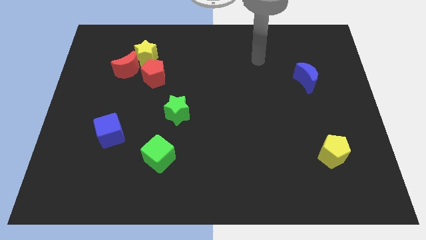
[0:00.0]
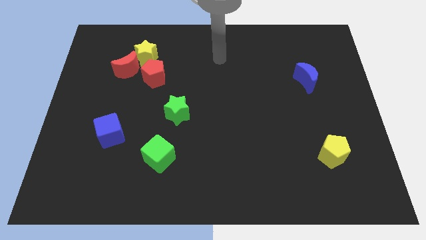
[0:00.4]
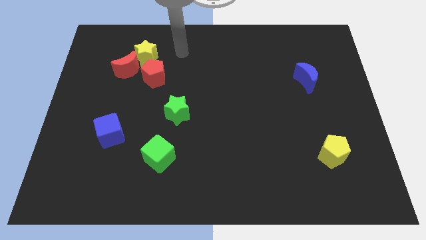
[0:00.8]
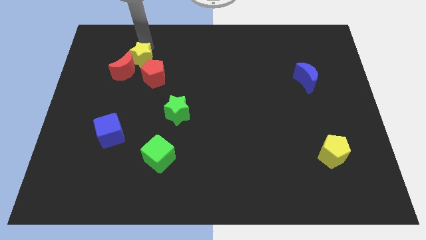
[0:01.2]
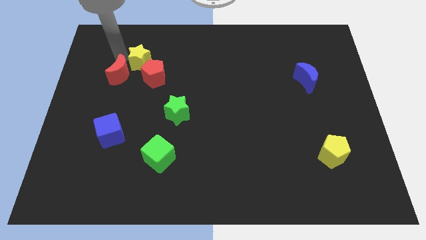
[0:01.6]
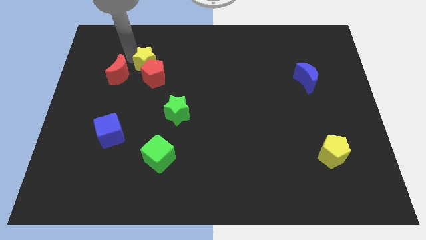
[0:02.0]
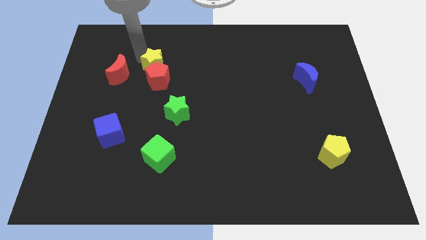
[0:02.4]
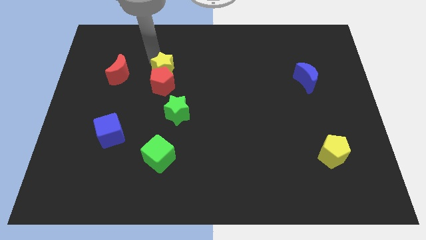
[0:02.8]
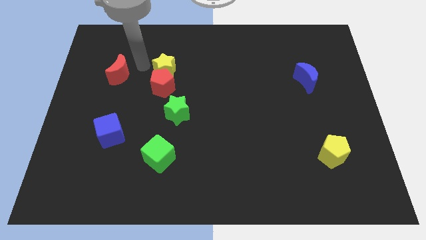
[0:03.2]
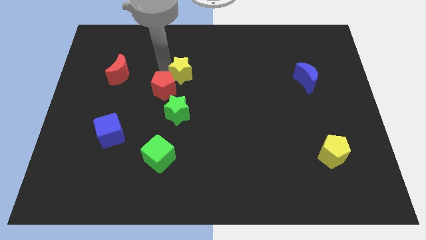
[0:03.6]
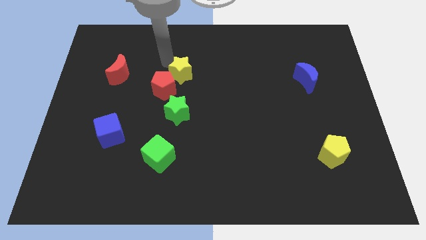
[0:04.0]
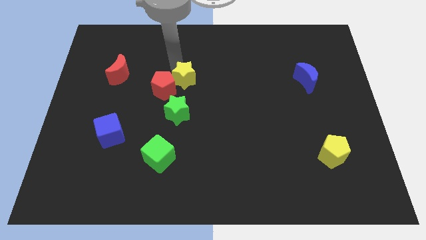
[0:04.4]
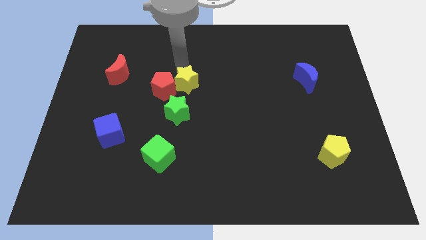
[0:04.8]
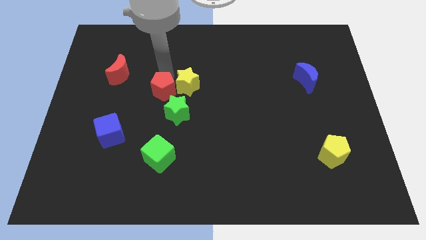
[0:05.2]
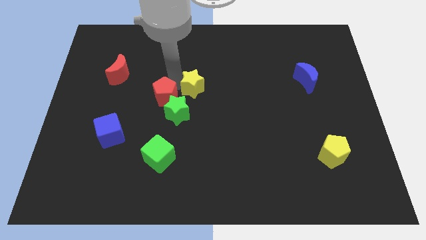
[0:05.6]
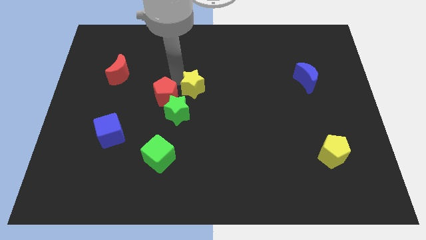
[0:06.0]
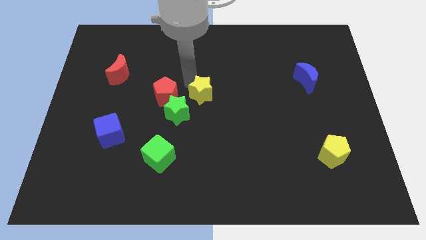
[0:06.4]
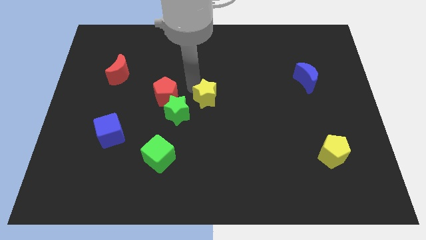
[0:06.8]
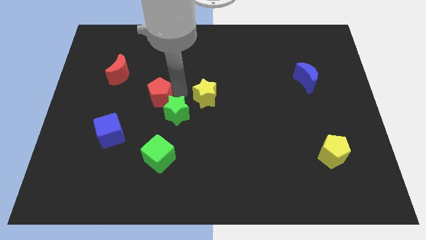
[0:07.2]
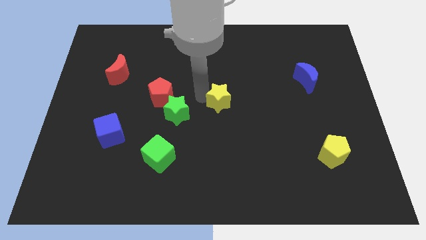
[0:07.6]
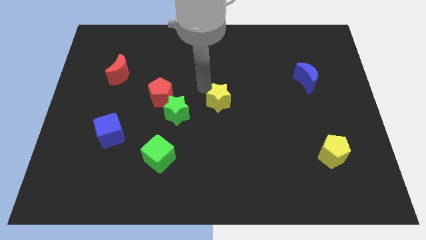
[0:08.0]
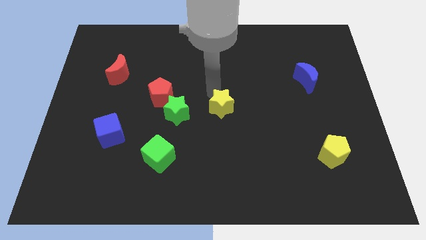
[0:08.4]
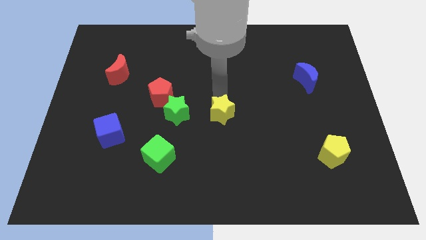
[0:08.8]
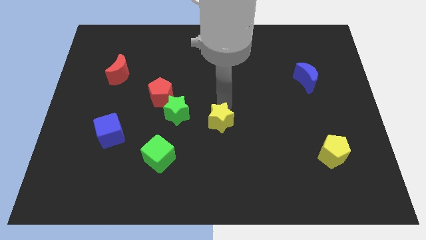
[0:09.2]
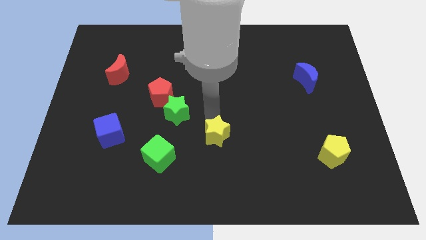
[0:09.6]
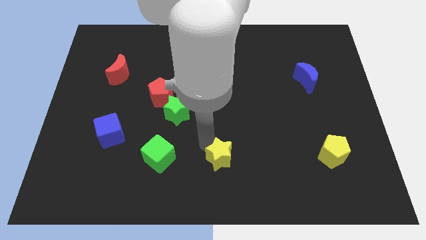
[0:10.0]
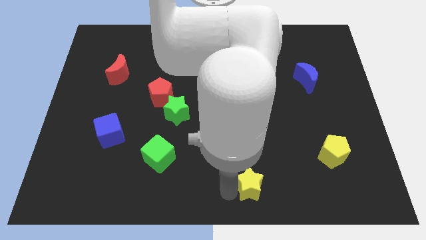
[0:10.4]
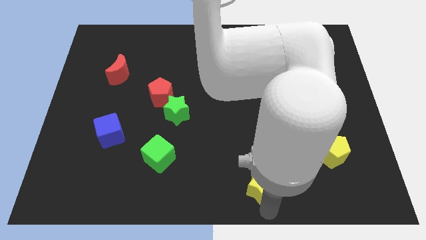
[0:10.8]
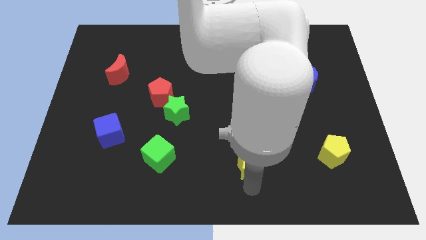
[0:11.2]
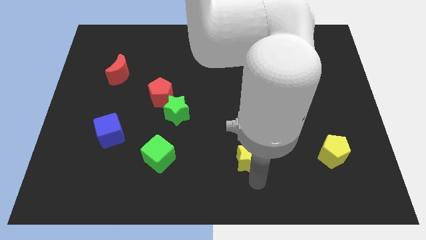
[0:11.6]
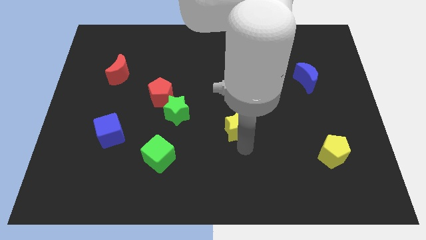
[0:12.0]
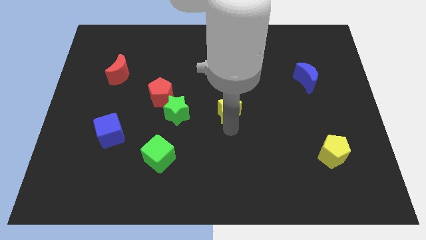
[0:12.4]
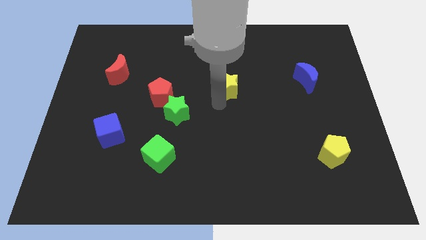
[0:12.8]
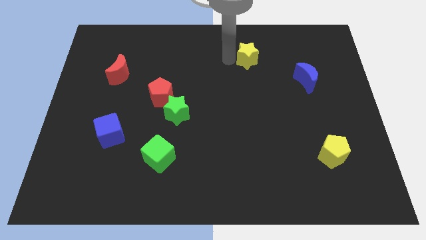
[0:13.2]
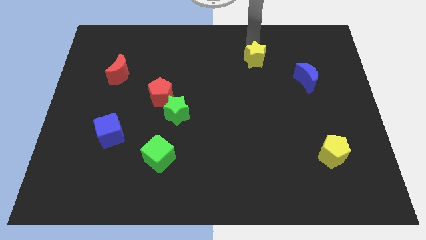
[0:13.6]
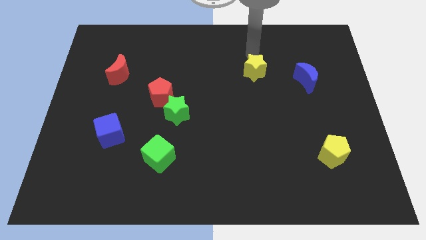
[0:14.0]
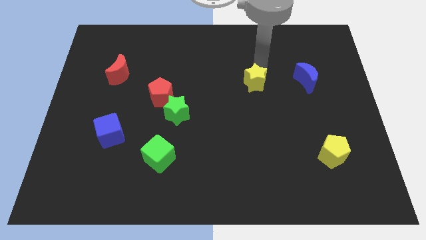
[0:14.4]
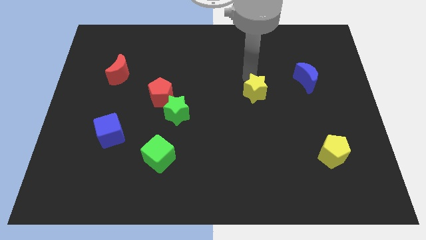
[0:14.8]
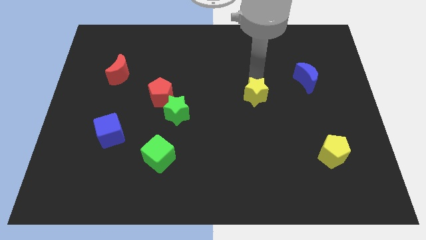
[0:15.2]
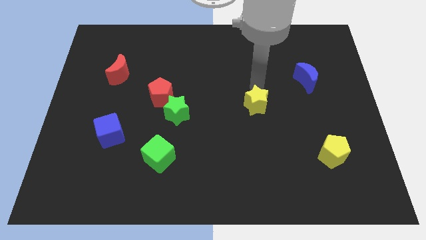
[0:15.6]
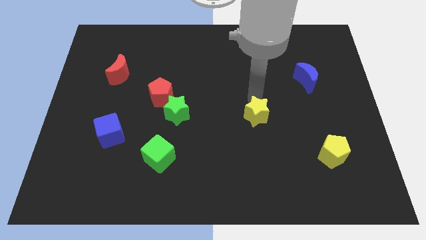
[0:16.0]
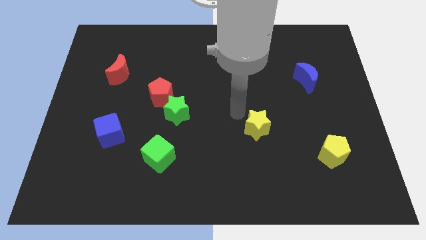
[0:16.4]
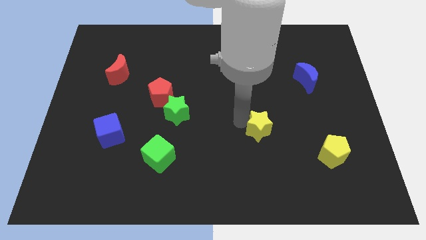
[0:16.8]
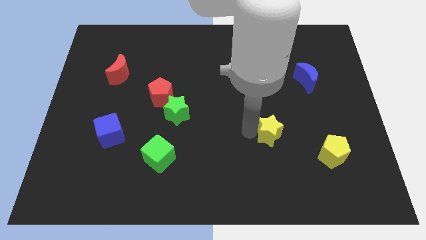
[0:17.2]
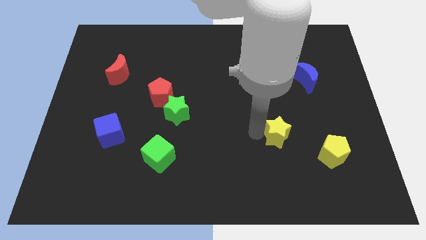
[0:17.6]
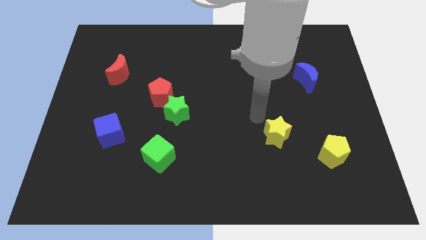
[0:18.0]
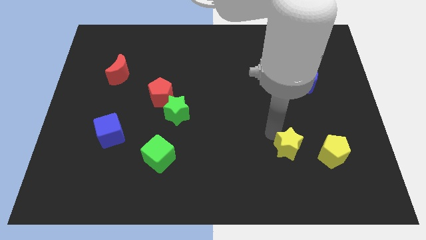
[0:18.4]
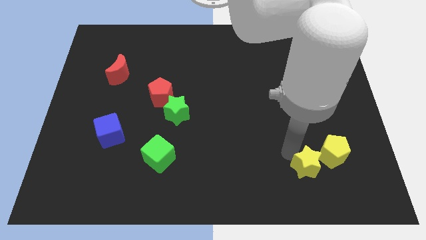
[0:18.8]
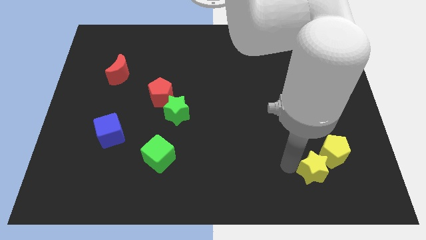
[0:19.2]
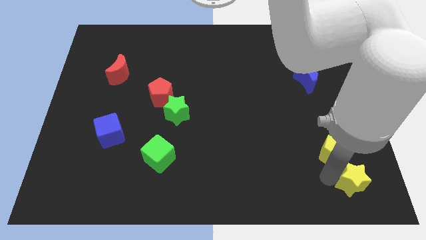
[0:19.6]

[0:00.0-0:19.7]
put the yellow star to the lower right corner

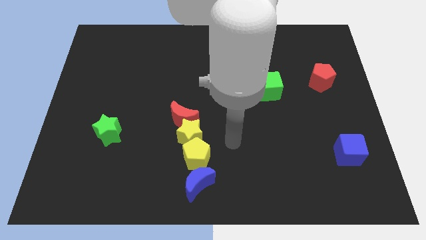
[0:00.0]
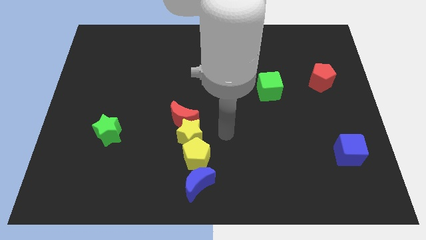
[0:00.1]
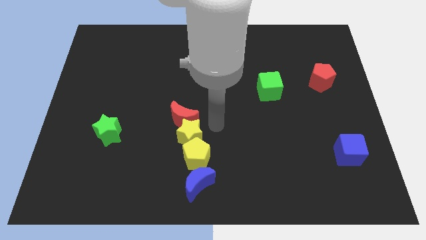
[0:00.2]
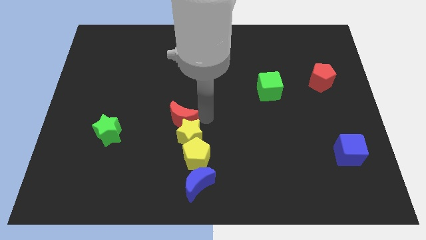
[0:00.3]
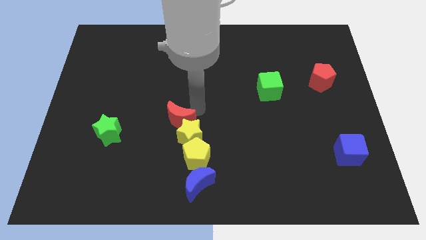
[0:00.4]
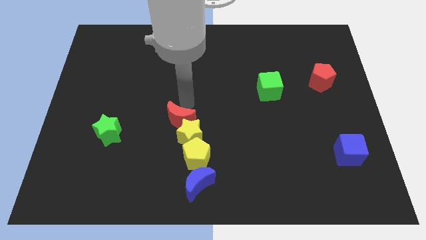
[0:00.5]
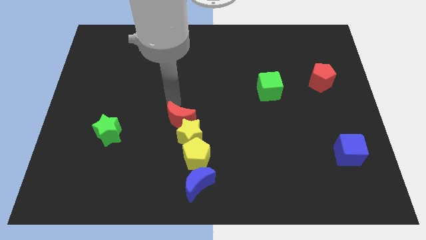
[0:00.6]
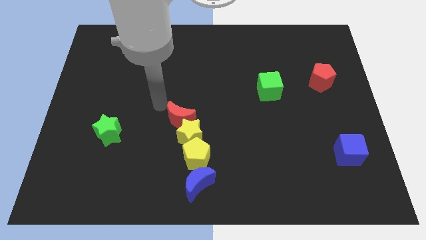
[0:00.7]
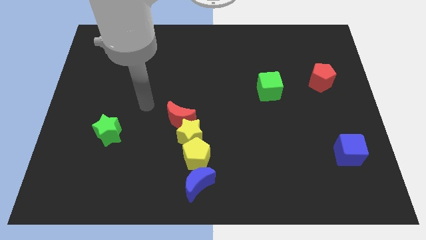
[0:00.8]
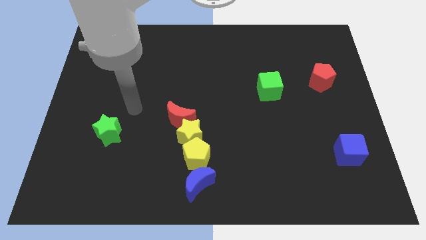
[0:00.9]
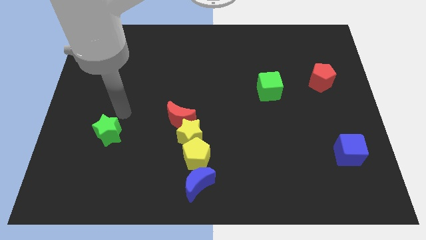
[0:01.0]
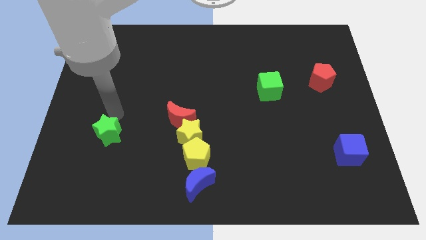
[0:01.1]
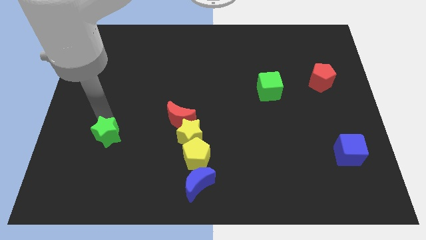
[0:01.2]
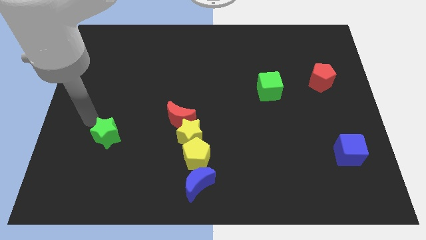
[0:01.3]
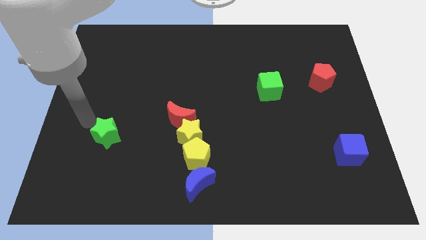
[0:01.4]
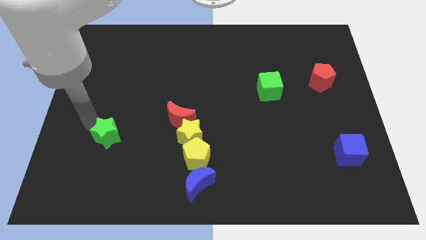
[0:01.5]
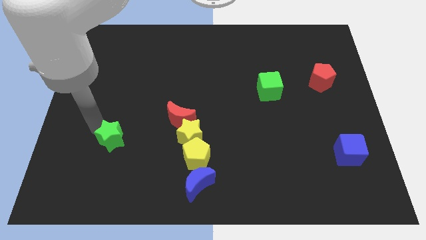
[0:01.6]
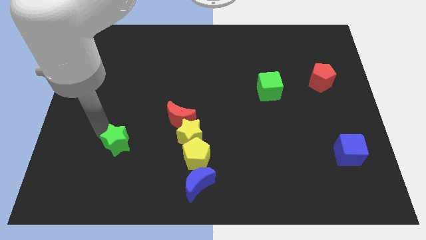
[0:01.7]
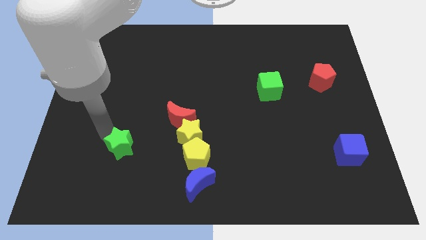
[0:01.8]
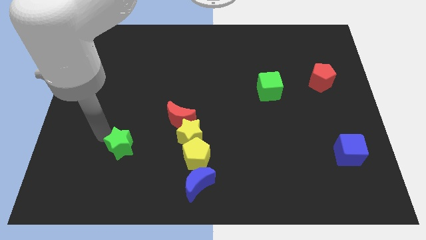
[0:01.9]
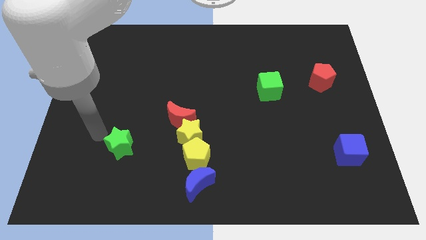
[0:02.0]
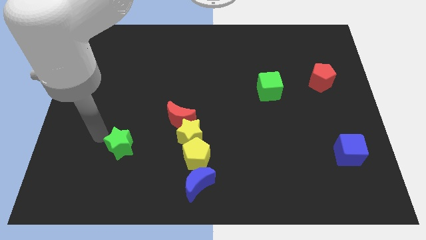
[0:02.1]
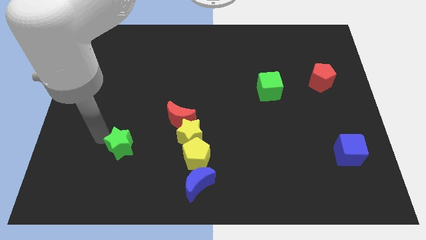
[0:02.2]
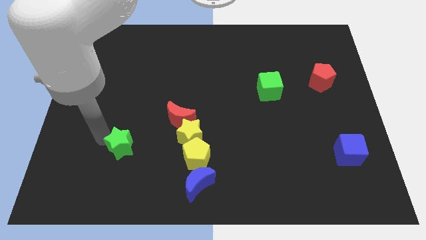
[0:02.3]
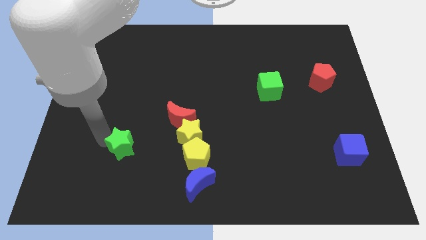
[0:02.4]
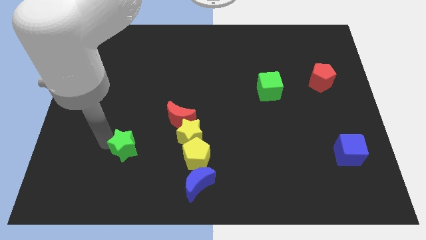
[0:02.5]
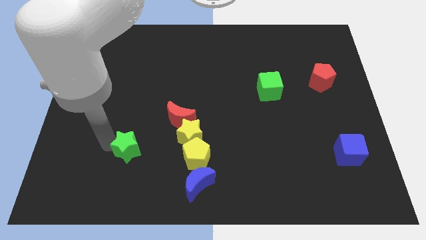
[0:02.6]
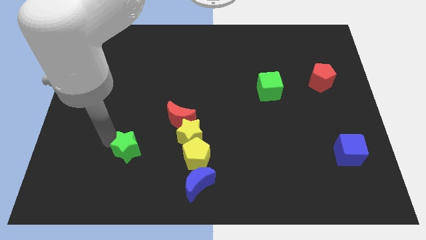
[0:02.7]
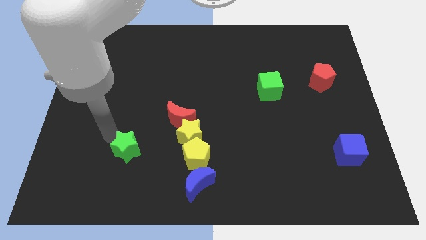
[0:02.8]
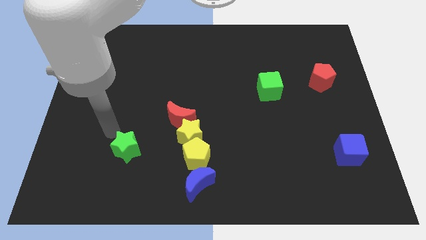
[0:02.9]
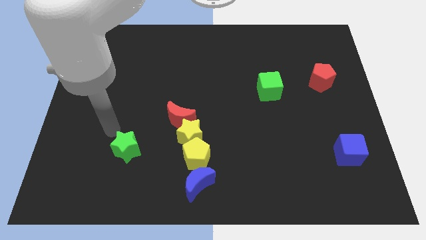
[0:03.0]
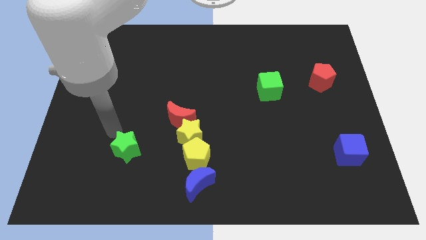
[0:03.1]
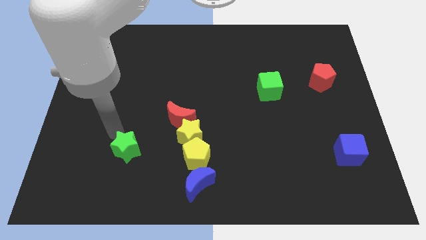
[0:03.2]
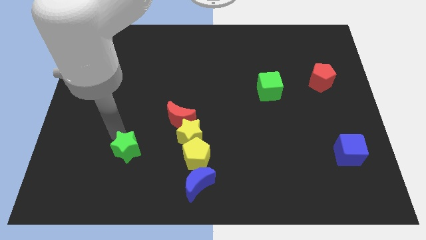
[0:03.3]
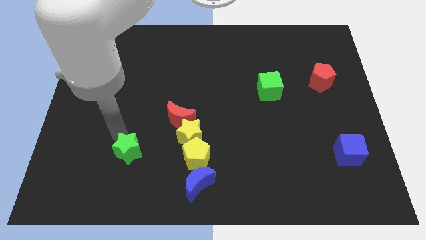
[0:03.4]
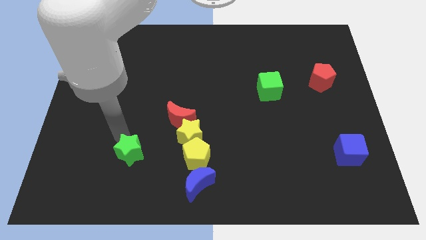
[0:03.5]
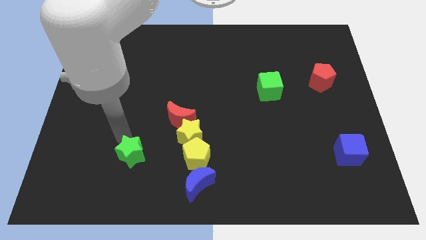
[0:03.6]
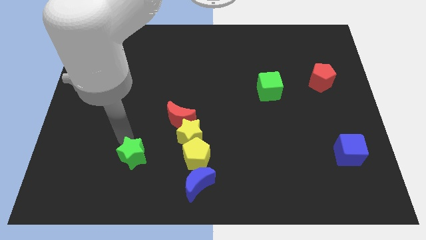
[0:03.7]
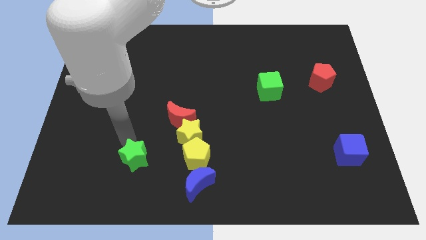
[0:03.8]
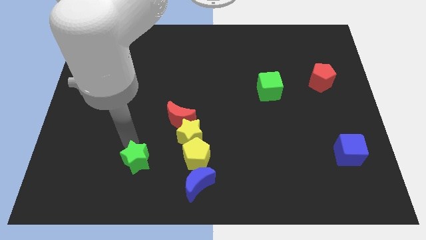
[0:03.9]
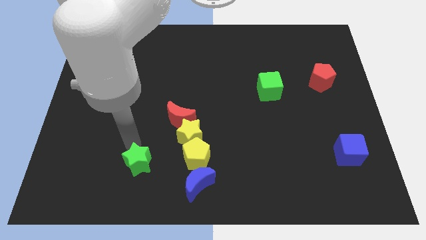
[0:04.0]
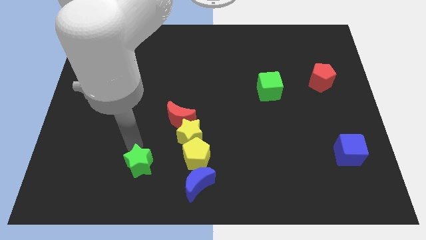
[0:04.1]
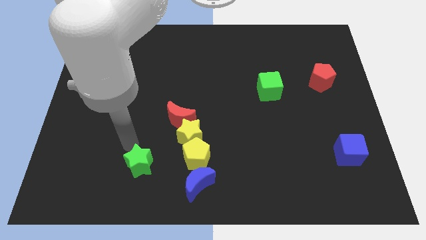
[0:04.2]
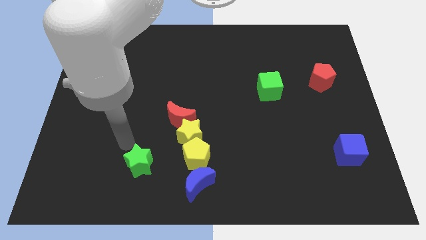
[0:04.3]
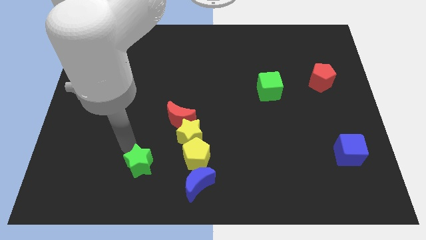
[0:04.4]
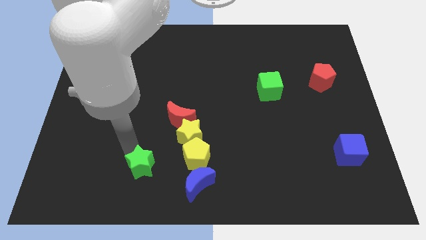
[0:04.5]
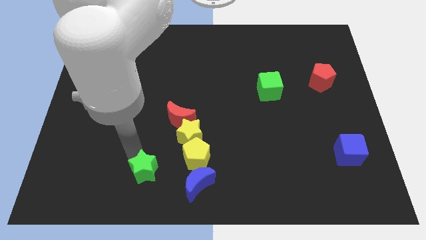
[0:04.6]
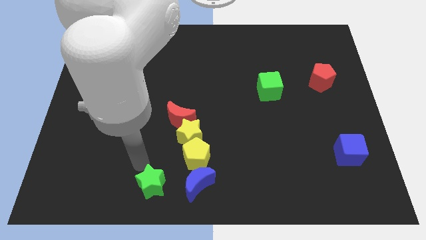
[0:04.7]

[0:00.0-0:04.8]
slide the green star to the bottom side
